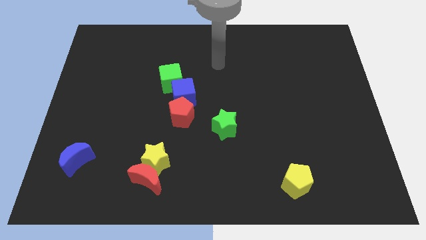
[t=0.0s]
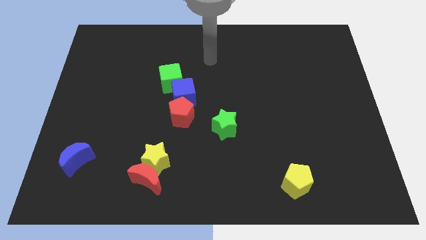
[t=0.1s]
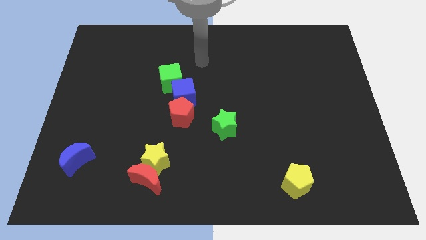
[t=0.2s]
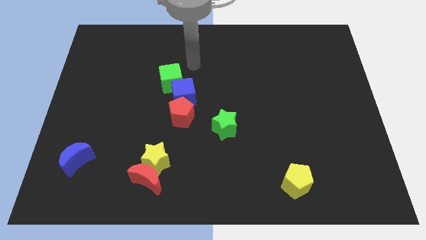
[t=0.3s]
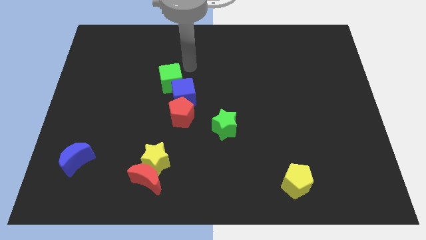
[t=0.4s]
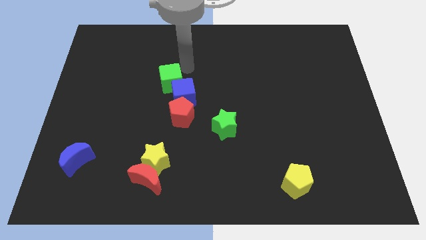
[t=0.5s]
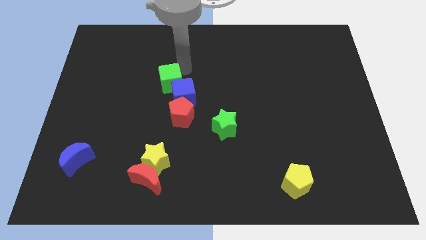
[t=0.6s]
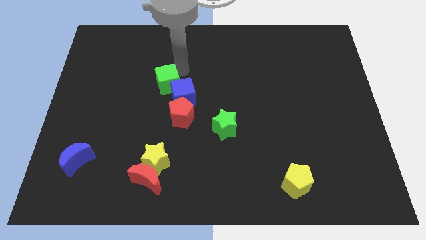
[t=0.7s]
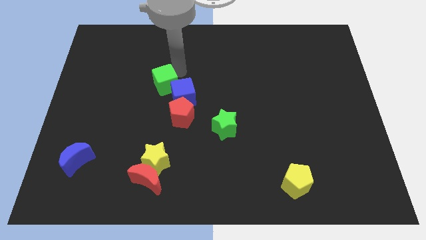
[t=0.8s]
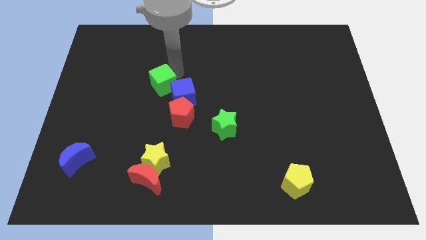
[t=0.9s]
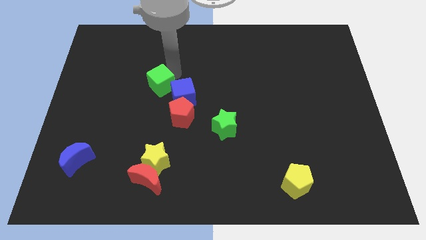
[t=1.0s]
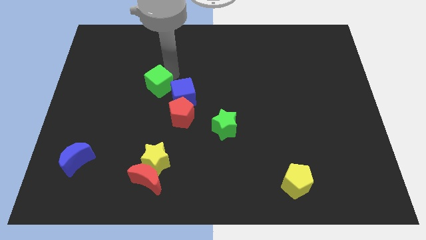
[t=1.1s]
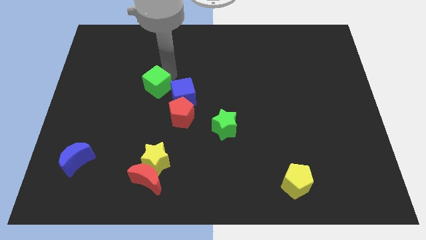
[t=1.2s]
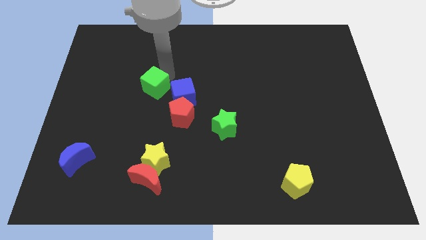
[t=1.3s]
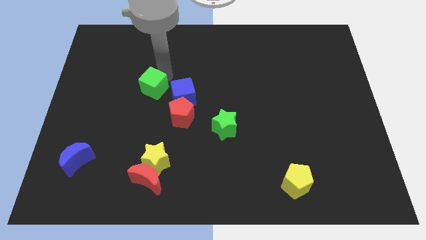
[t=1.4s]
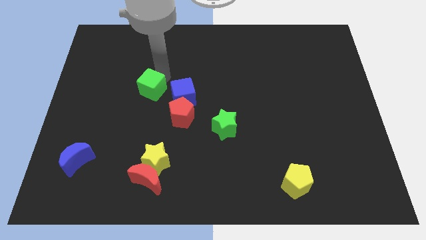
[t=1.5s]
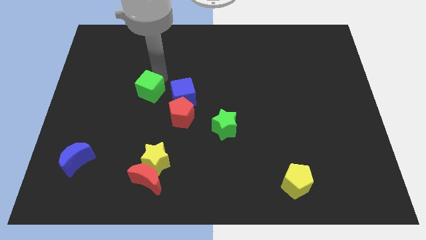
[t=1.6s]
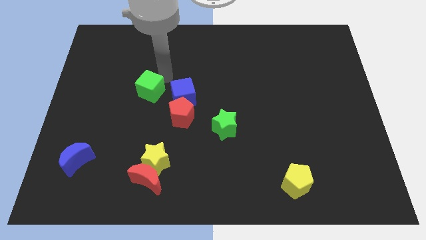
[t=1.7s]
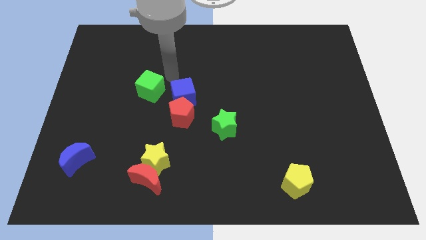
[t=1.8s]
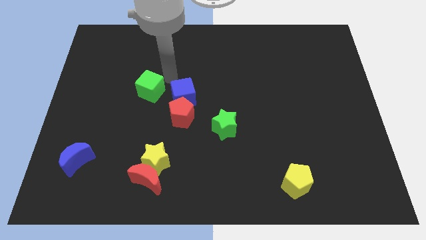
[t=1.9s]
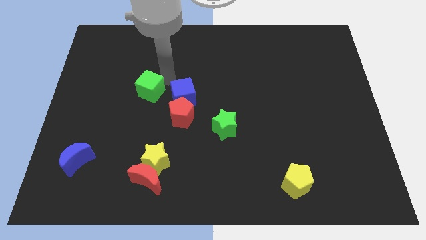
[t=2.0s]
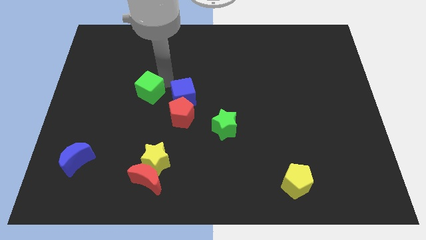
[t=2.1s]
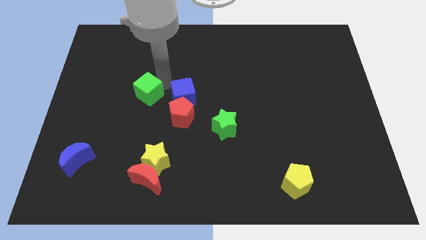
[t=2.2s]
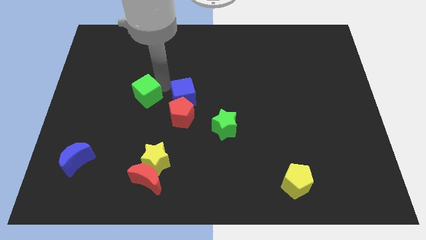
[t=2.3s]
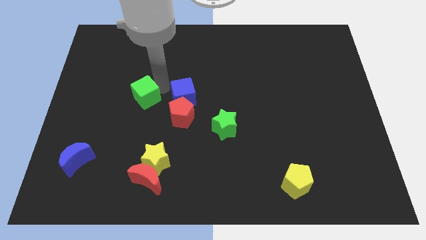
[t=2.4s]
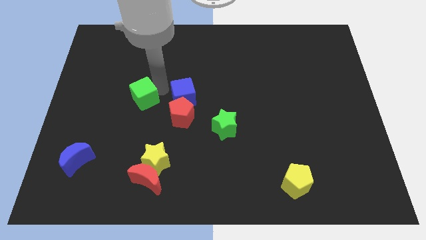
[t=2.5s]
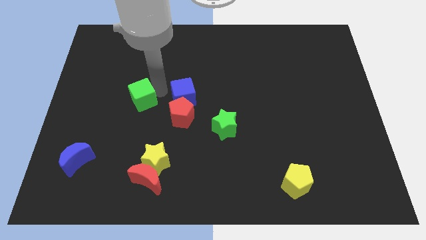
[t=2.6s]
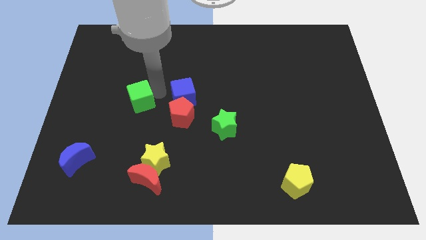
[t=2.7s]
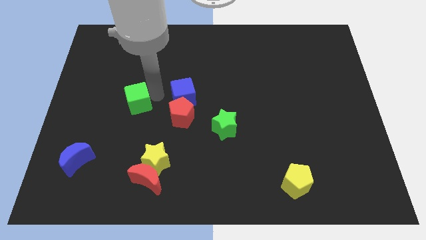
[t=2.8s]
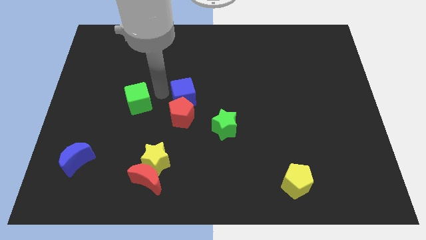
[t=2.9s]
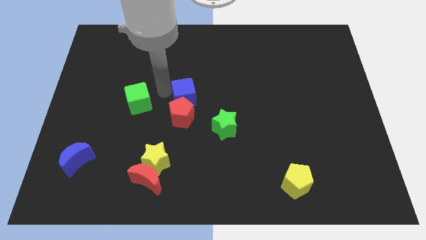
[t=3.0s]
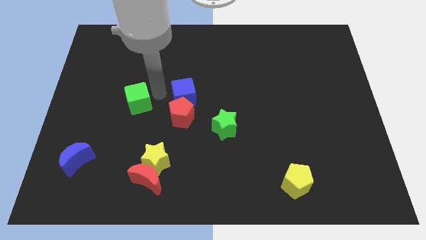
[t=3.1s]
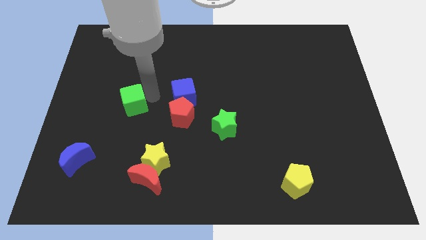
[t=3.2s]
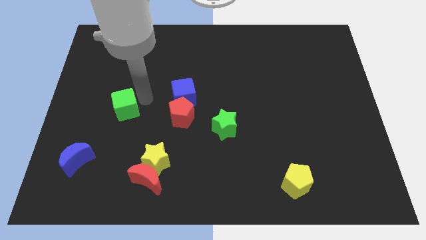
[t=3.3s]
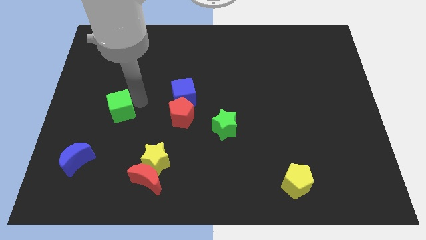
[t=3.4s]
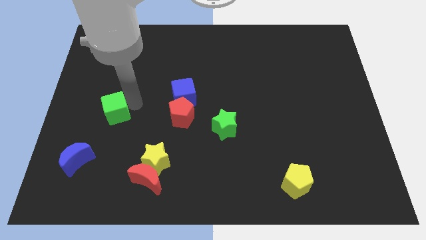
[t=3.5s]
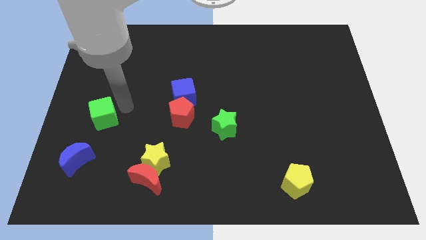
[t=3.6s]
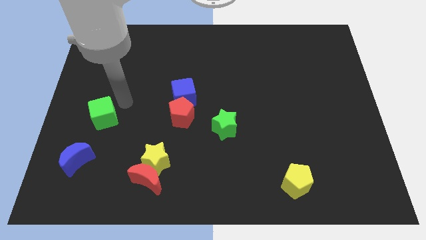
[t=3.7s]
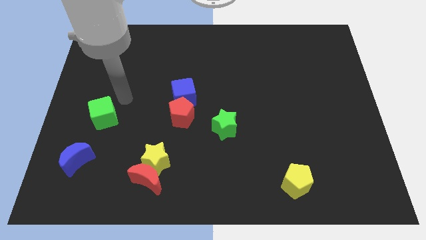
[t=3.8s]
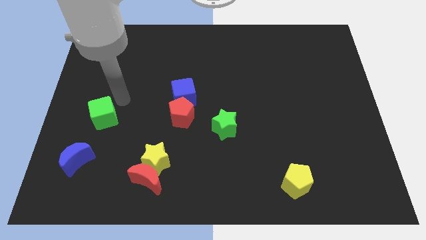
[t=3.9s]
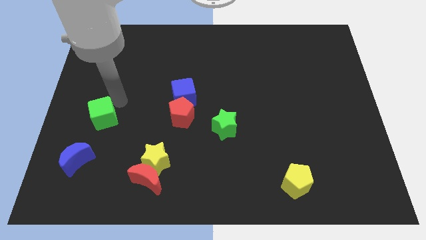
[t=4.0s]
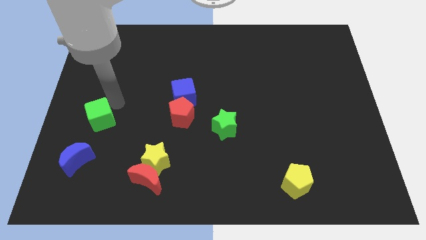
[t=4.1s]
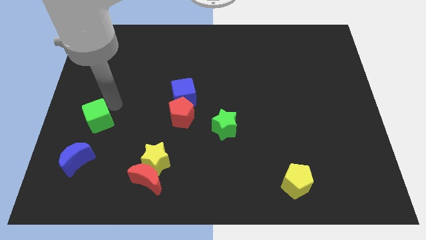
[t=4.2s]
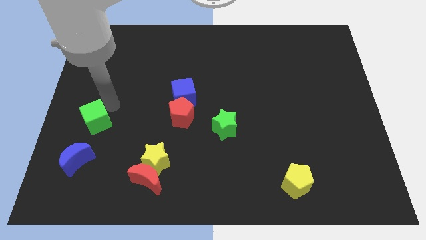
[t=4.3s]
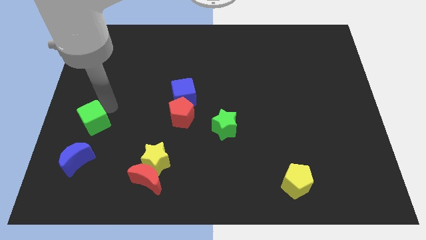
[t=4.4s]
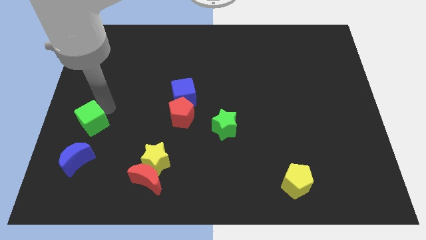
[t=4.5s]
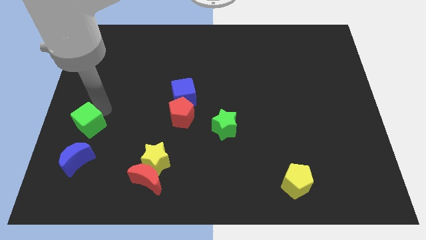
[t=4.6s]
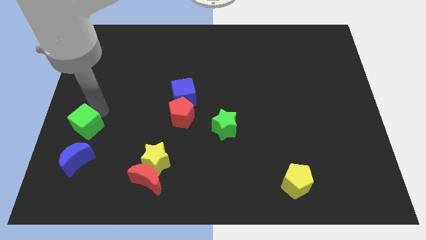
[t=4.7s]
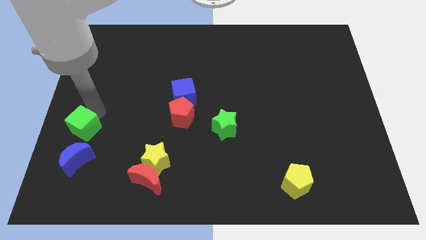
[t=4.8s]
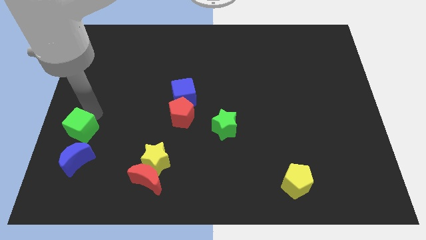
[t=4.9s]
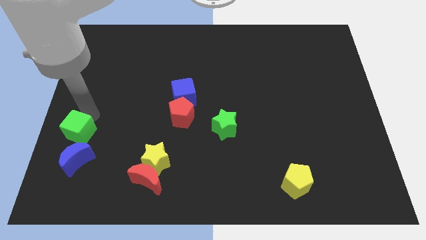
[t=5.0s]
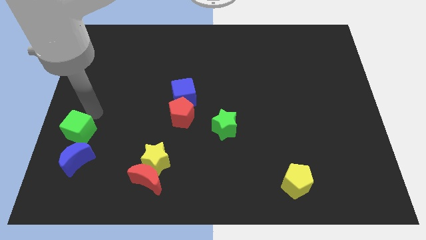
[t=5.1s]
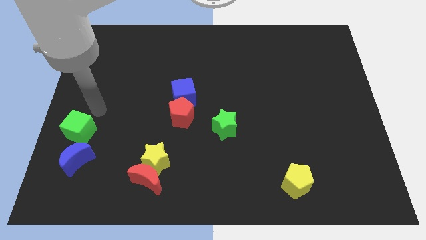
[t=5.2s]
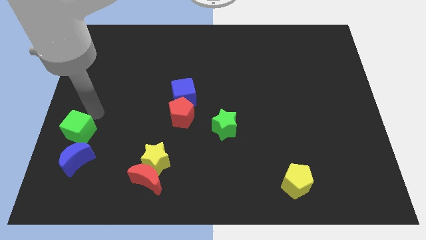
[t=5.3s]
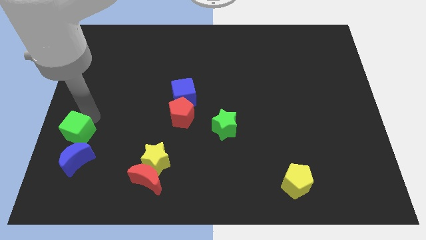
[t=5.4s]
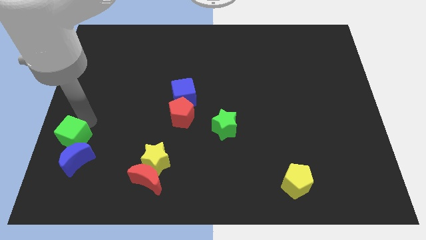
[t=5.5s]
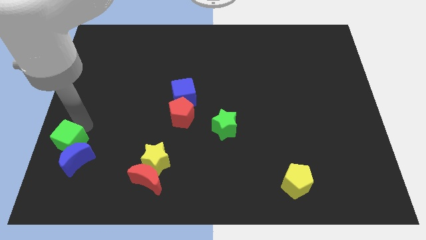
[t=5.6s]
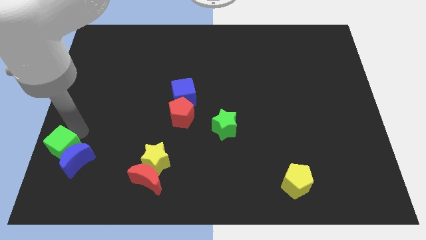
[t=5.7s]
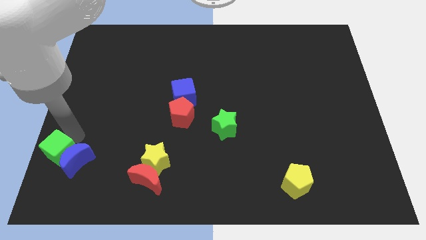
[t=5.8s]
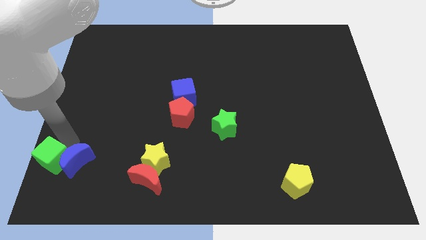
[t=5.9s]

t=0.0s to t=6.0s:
put the green cube to the bottom left of the board
